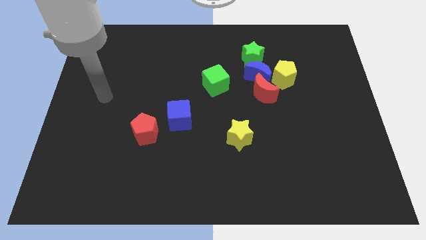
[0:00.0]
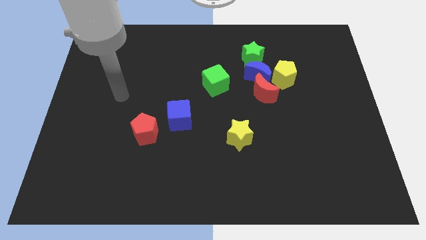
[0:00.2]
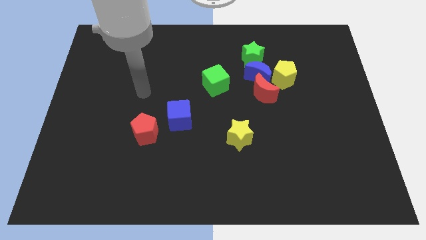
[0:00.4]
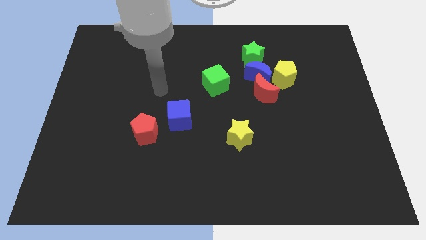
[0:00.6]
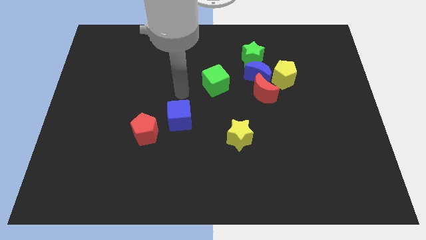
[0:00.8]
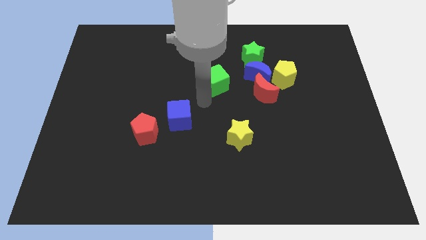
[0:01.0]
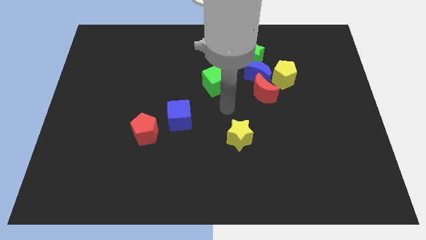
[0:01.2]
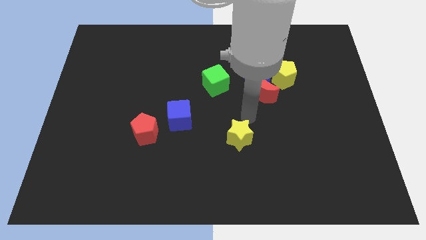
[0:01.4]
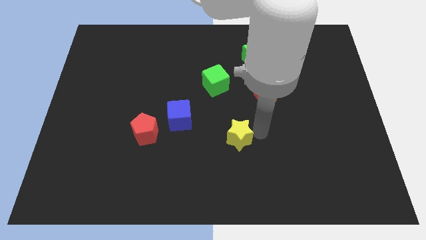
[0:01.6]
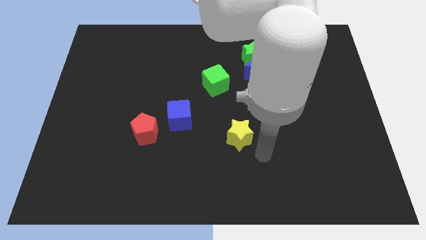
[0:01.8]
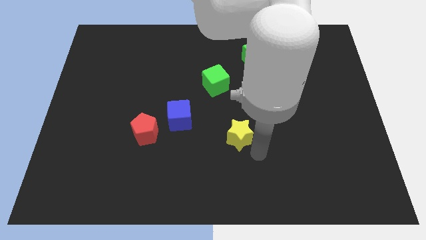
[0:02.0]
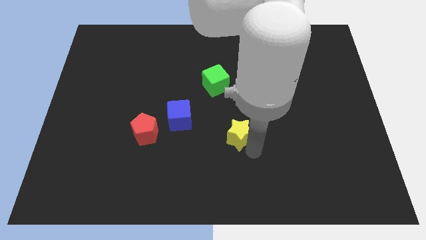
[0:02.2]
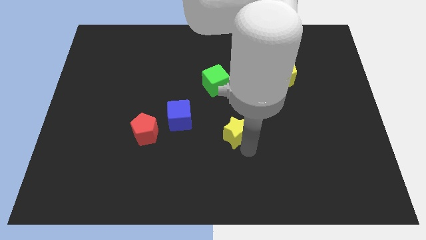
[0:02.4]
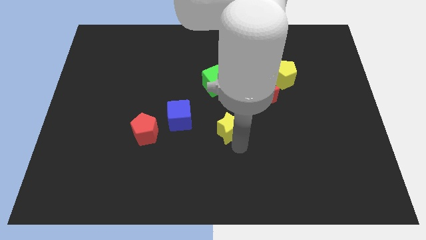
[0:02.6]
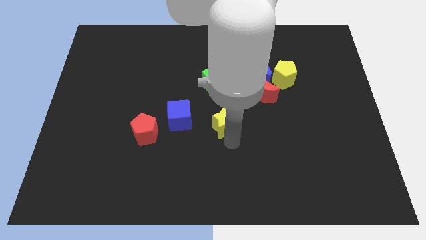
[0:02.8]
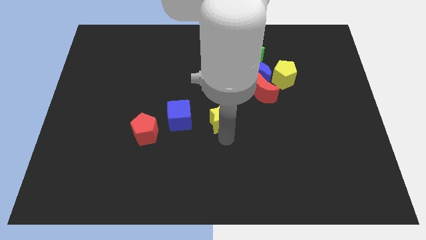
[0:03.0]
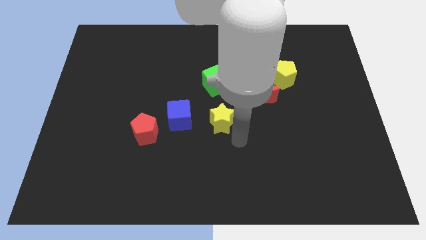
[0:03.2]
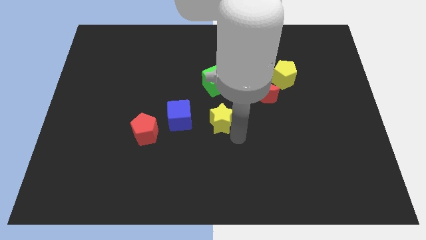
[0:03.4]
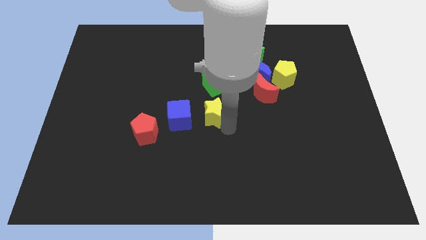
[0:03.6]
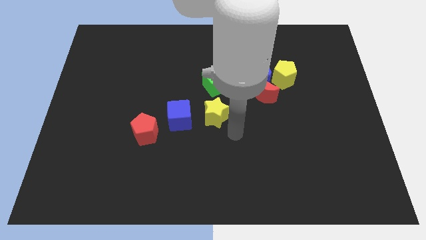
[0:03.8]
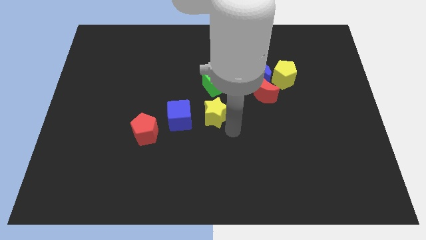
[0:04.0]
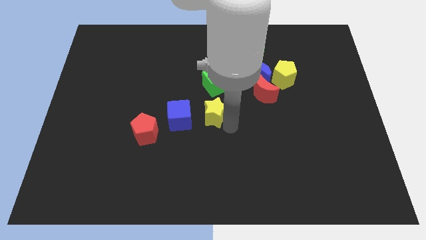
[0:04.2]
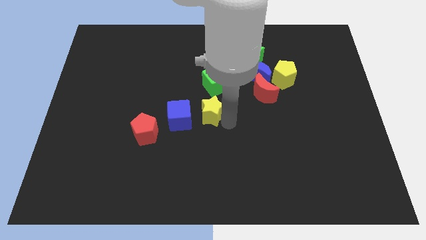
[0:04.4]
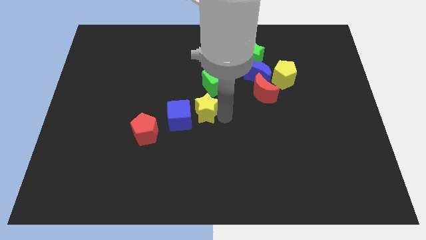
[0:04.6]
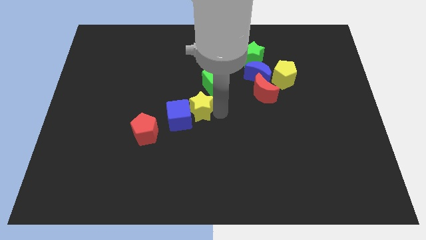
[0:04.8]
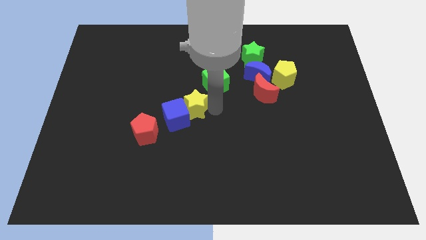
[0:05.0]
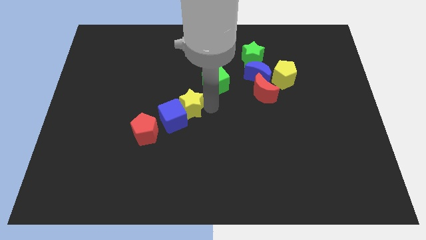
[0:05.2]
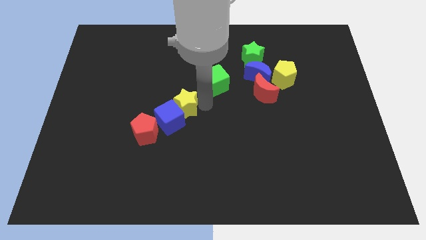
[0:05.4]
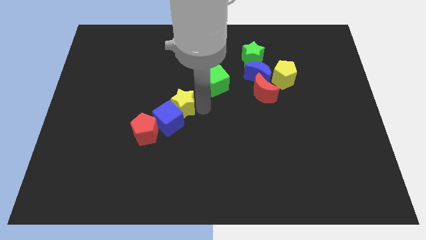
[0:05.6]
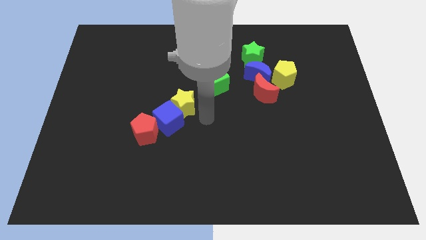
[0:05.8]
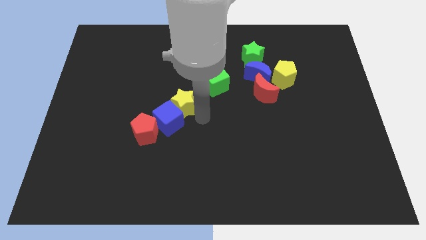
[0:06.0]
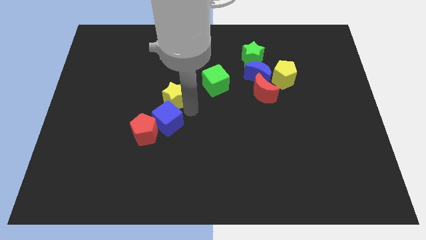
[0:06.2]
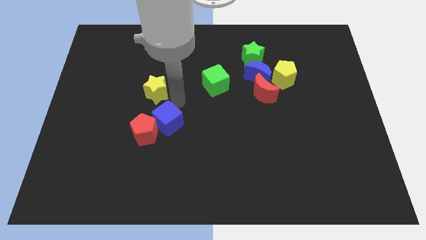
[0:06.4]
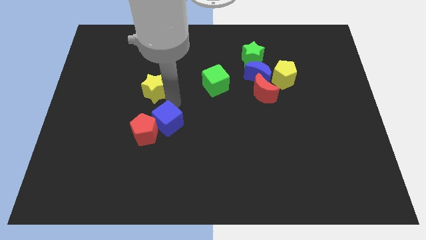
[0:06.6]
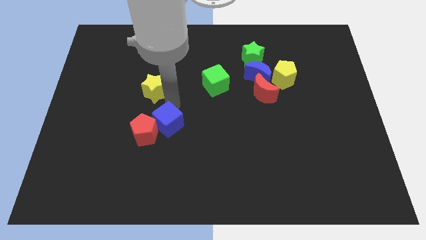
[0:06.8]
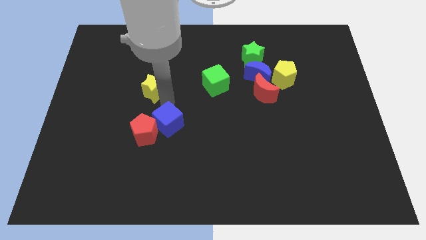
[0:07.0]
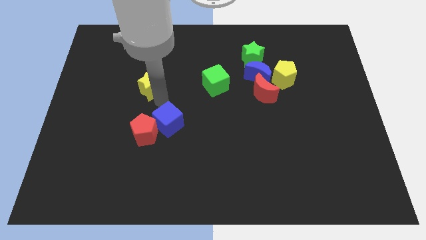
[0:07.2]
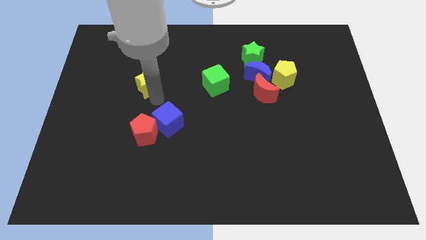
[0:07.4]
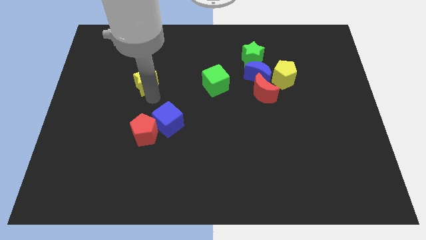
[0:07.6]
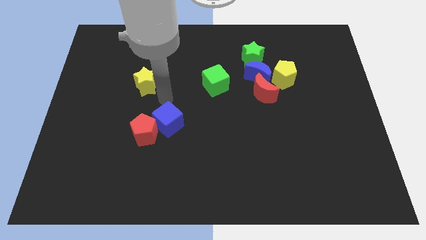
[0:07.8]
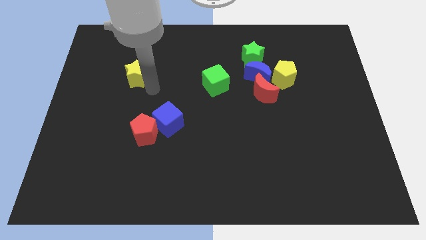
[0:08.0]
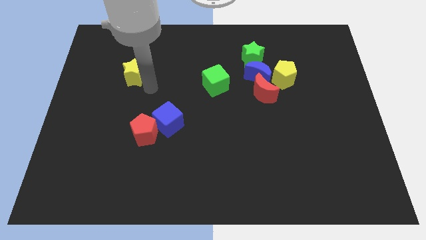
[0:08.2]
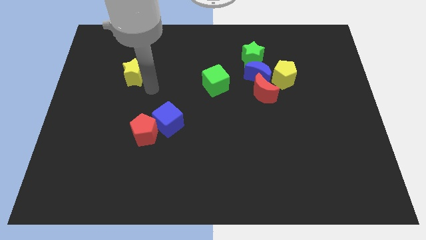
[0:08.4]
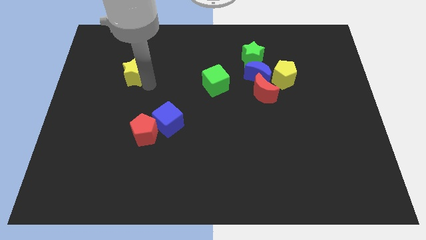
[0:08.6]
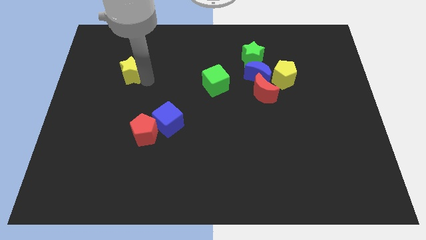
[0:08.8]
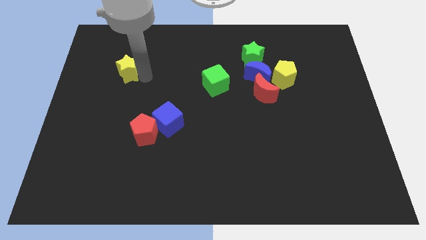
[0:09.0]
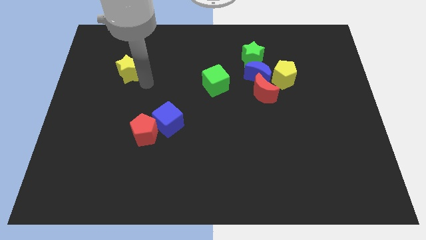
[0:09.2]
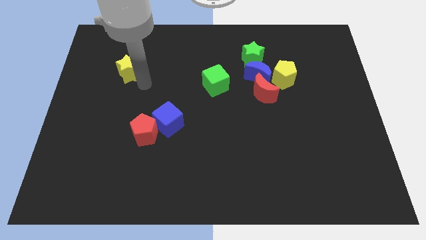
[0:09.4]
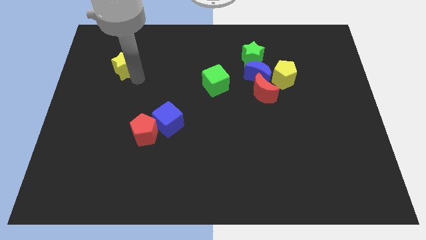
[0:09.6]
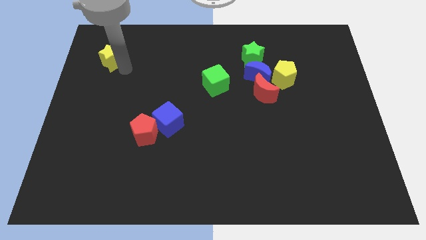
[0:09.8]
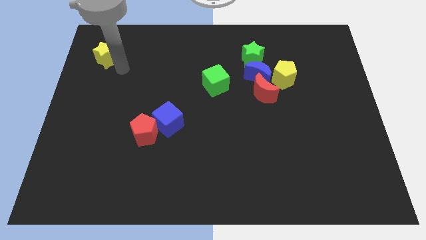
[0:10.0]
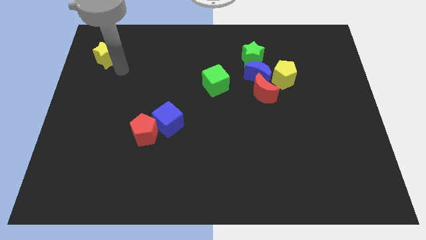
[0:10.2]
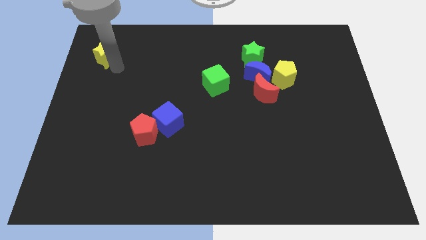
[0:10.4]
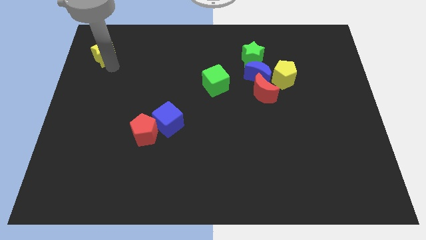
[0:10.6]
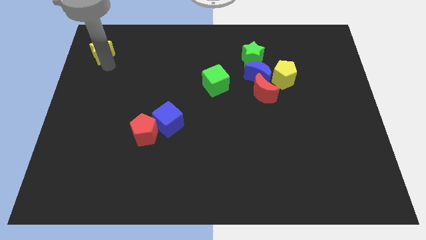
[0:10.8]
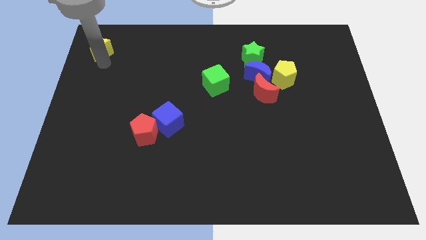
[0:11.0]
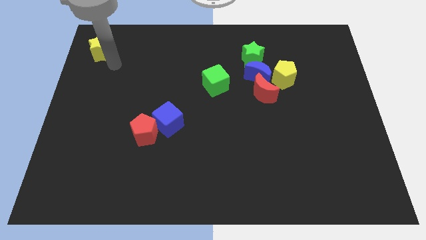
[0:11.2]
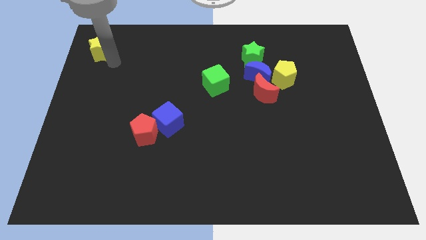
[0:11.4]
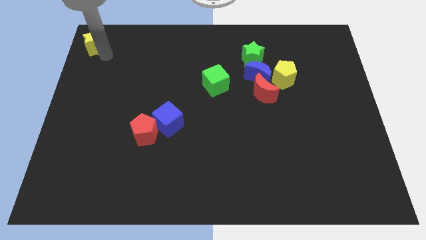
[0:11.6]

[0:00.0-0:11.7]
push the yellow star to the top left corner

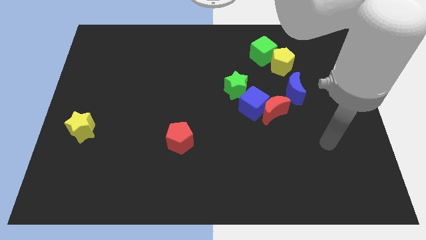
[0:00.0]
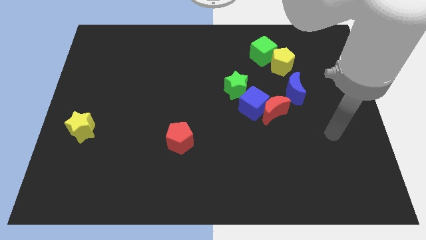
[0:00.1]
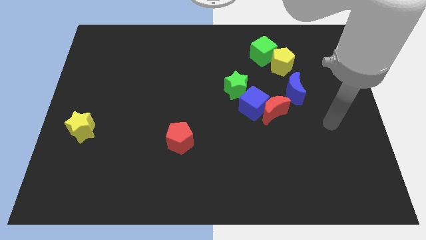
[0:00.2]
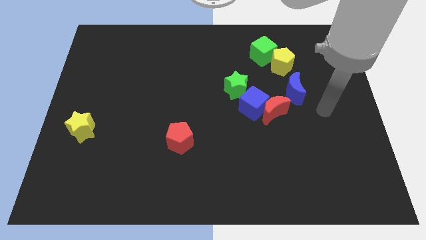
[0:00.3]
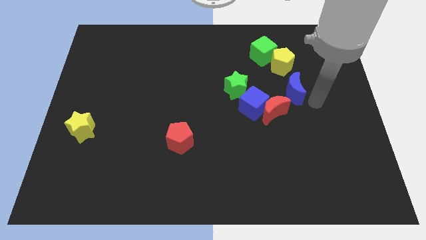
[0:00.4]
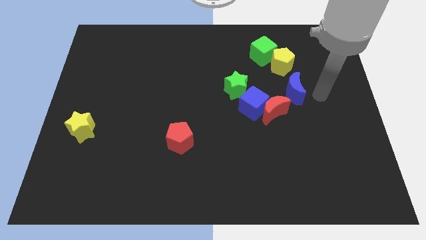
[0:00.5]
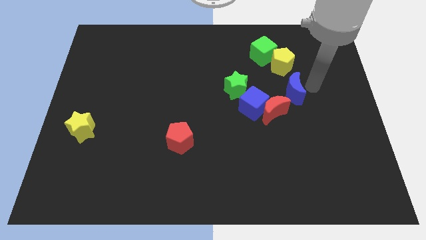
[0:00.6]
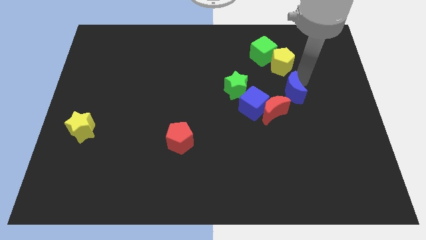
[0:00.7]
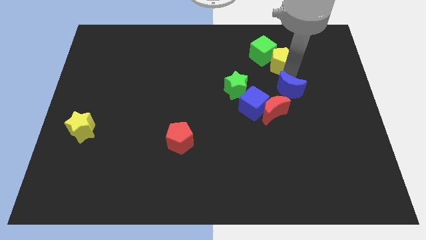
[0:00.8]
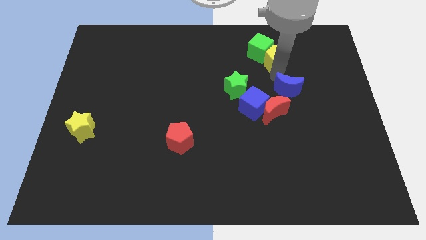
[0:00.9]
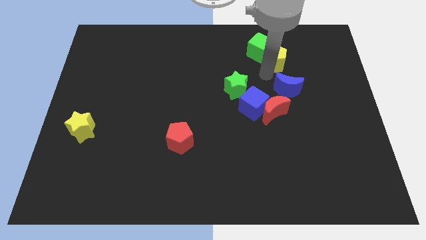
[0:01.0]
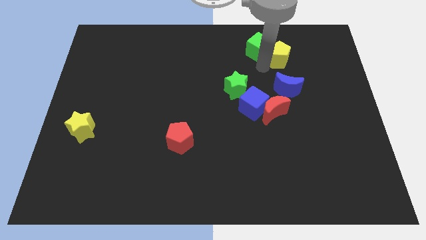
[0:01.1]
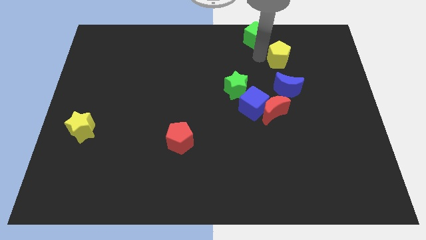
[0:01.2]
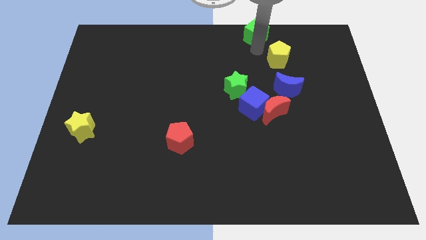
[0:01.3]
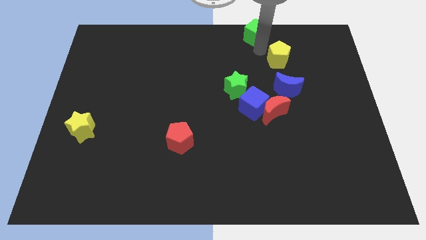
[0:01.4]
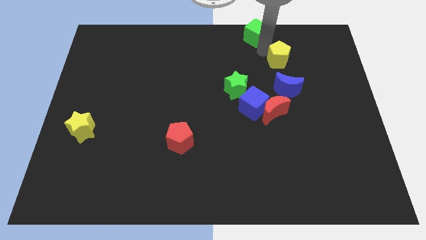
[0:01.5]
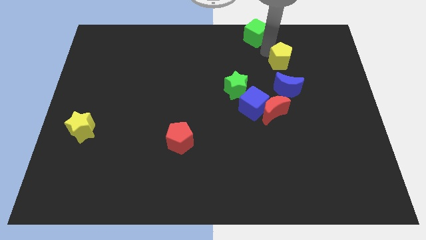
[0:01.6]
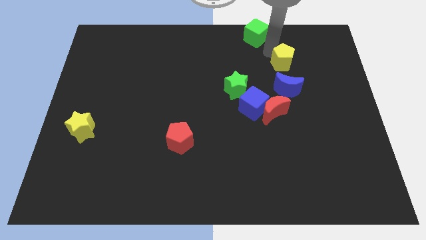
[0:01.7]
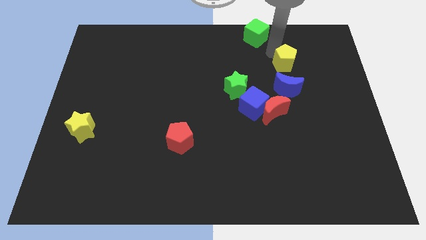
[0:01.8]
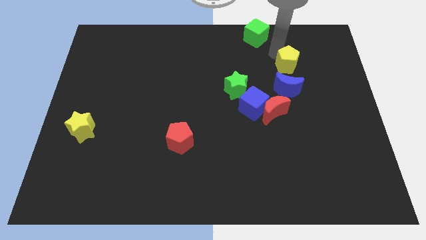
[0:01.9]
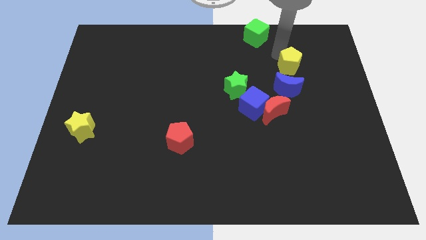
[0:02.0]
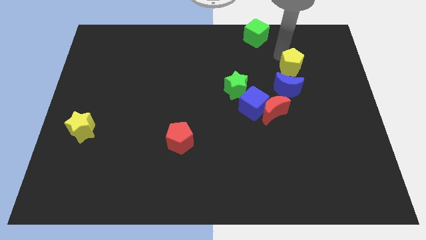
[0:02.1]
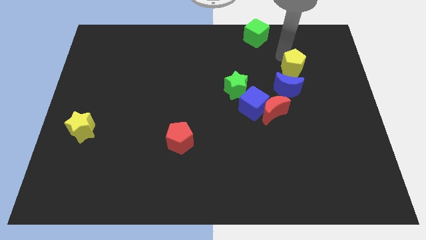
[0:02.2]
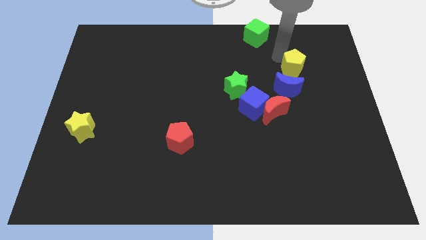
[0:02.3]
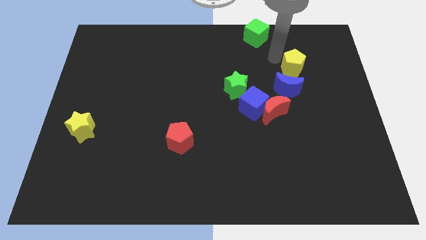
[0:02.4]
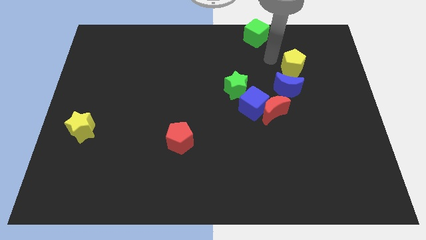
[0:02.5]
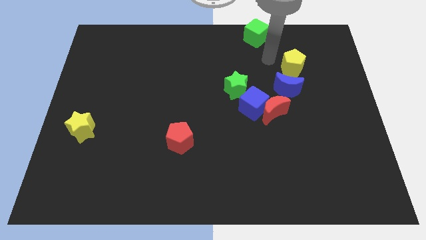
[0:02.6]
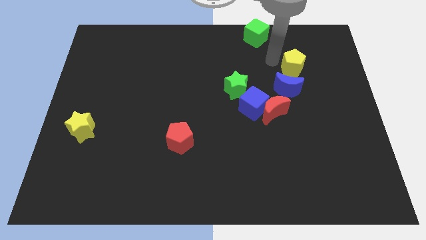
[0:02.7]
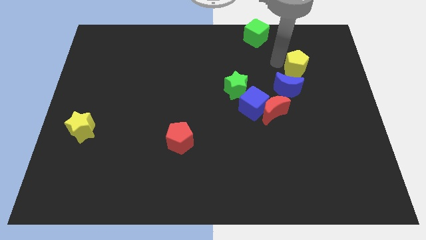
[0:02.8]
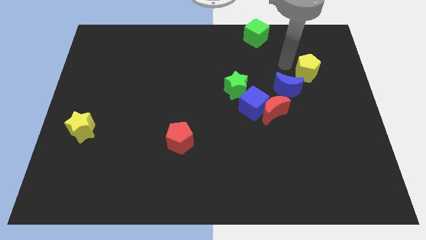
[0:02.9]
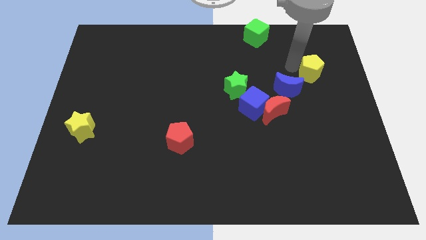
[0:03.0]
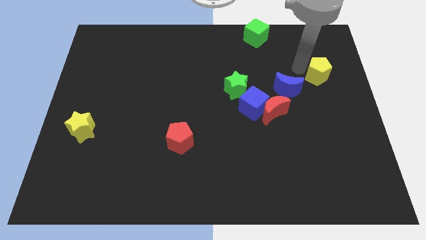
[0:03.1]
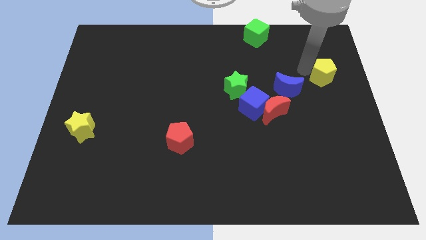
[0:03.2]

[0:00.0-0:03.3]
move the yellow pentagon to the right side
